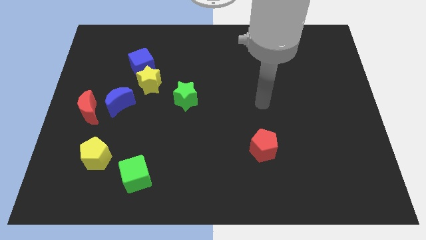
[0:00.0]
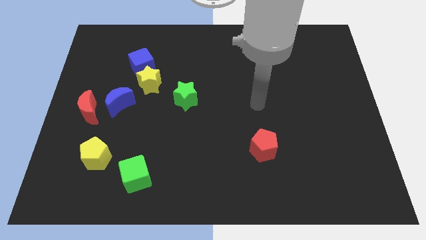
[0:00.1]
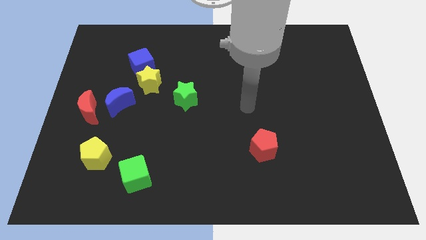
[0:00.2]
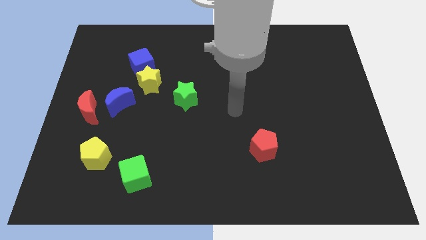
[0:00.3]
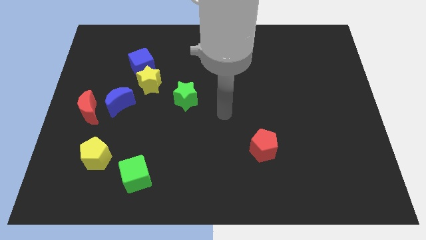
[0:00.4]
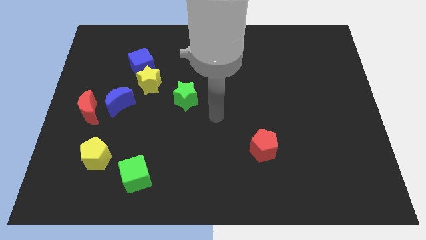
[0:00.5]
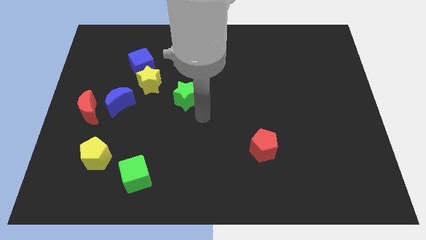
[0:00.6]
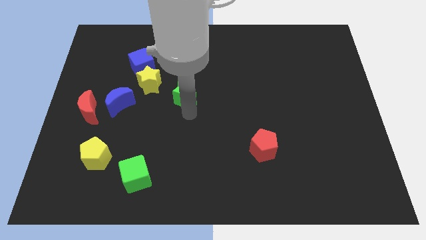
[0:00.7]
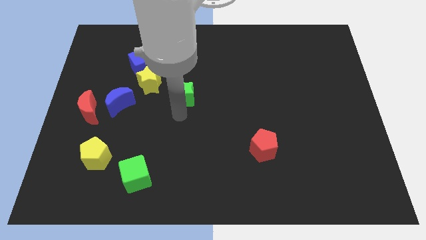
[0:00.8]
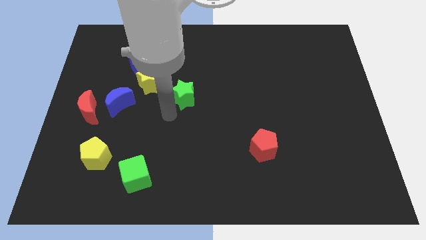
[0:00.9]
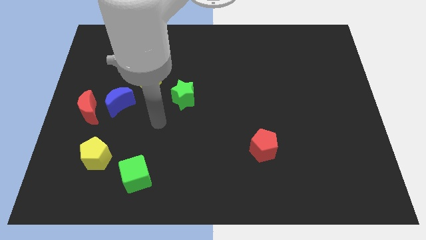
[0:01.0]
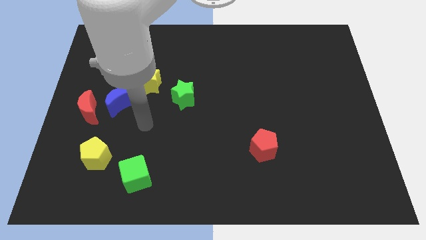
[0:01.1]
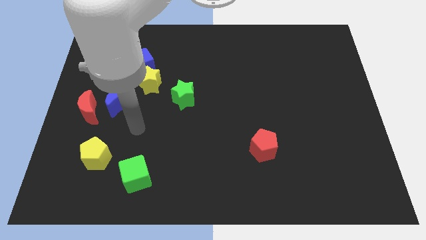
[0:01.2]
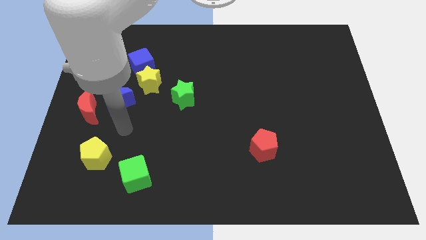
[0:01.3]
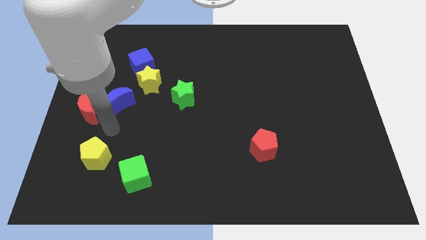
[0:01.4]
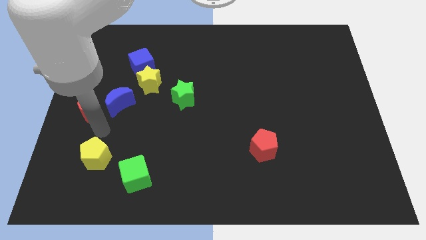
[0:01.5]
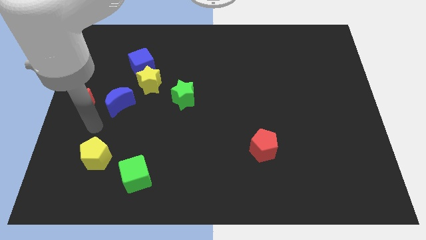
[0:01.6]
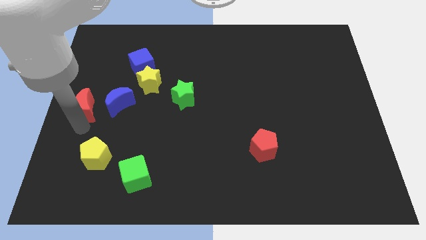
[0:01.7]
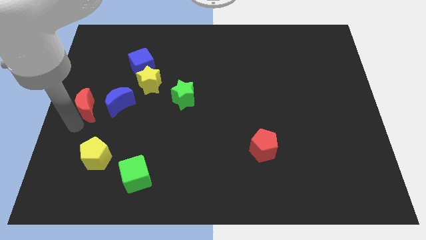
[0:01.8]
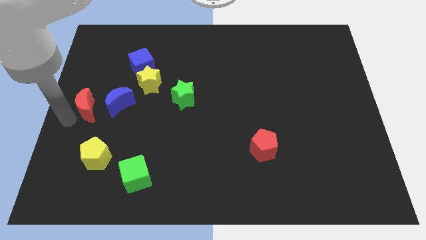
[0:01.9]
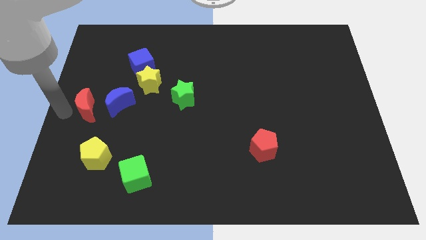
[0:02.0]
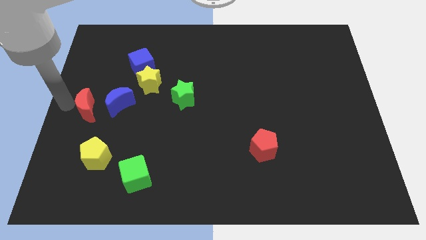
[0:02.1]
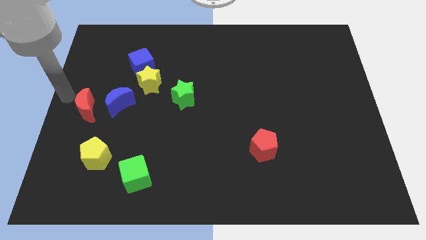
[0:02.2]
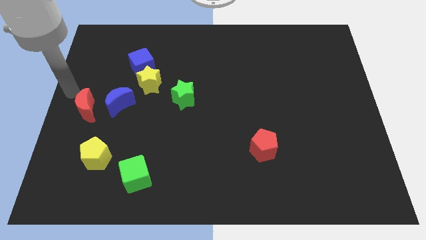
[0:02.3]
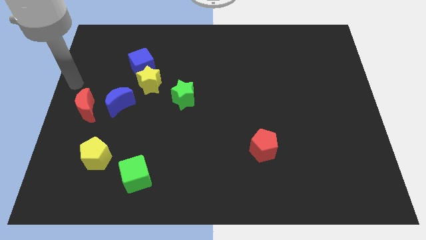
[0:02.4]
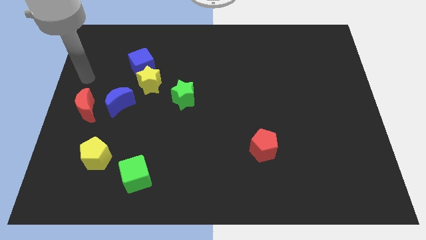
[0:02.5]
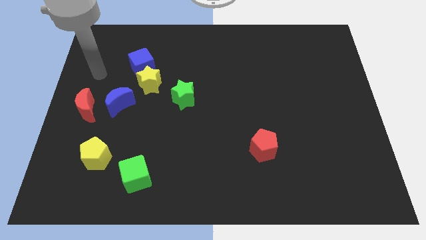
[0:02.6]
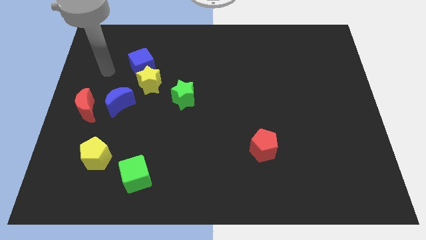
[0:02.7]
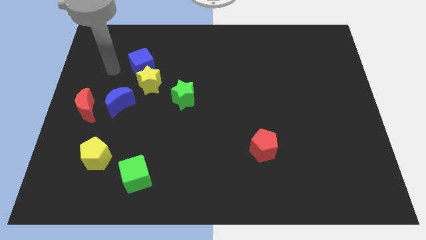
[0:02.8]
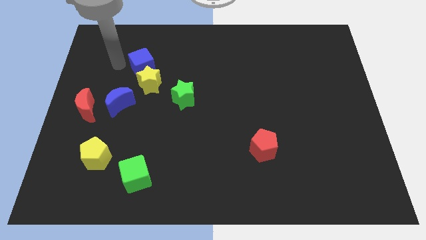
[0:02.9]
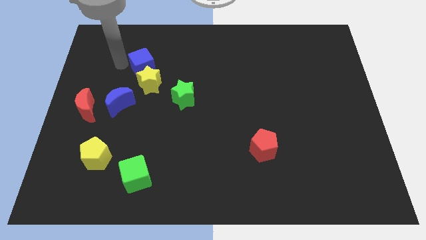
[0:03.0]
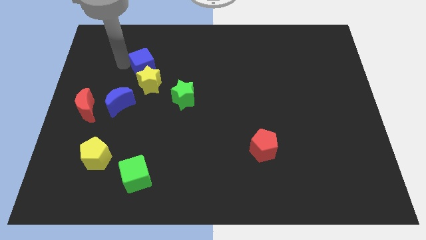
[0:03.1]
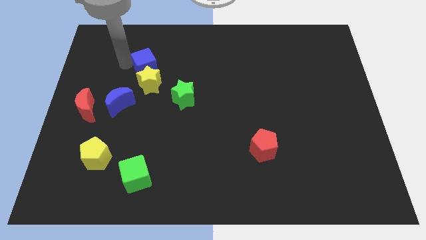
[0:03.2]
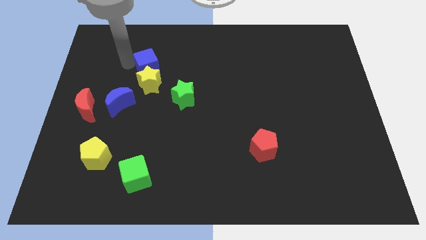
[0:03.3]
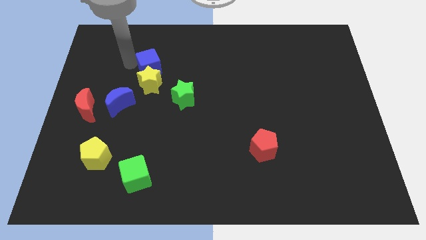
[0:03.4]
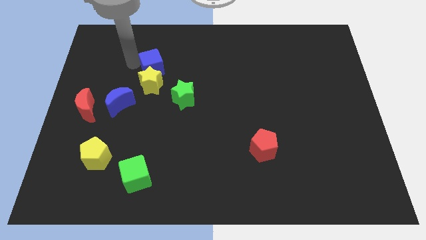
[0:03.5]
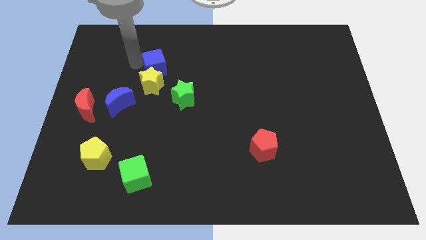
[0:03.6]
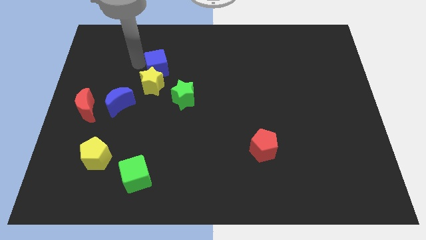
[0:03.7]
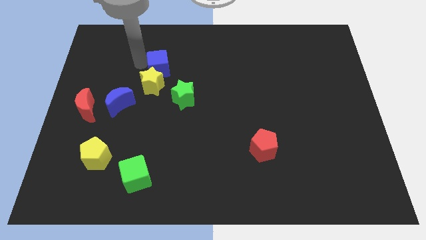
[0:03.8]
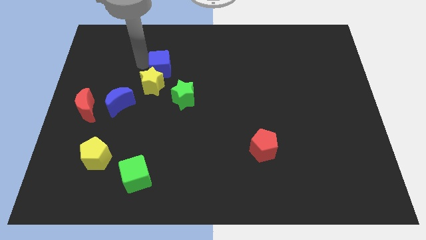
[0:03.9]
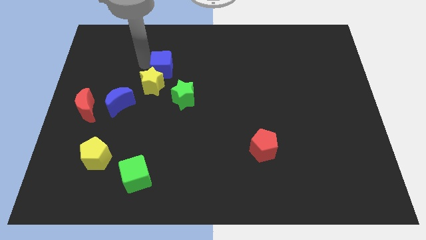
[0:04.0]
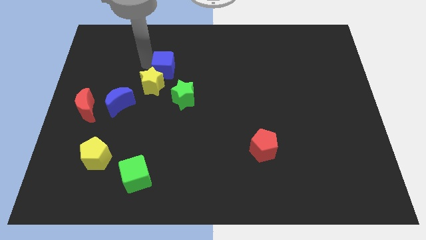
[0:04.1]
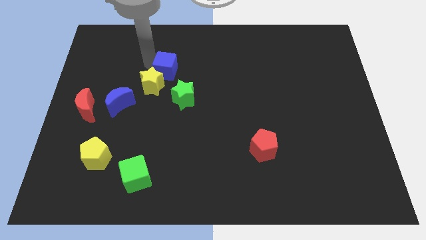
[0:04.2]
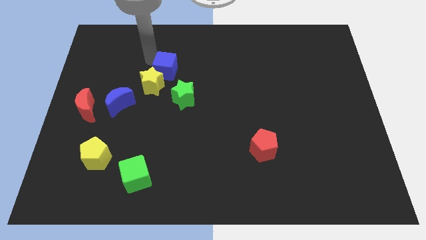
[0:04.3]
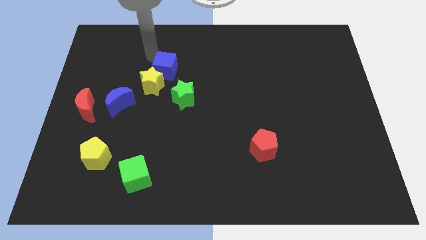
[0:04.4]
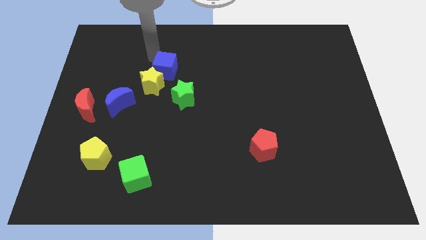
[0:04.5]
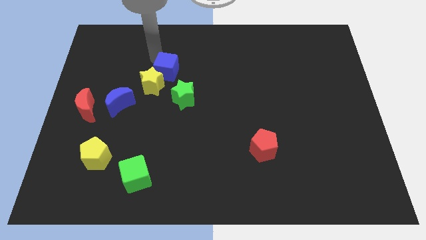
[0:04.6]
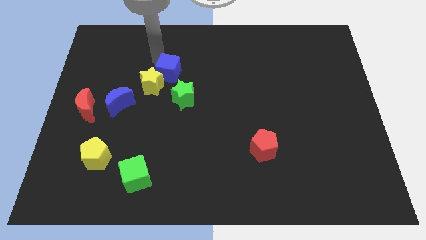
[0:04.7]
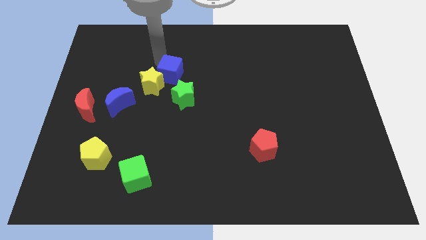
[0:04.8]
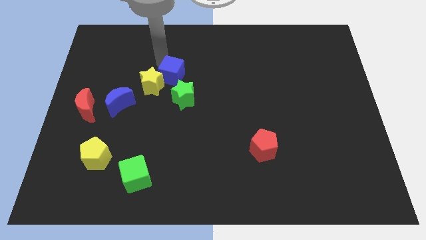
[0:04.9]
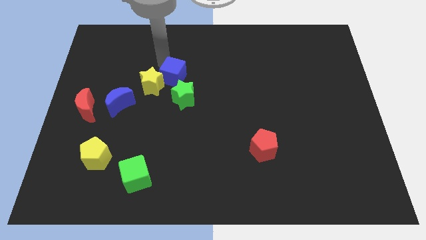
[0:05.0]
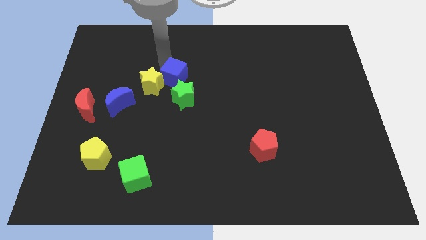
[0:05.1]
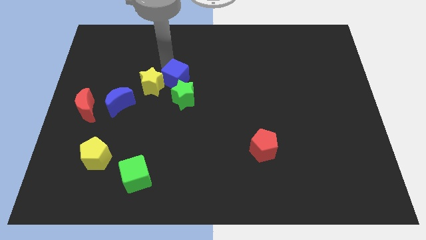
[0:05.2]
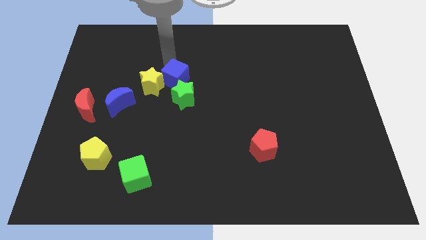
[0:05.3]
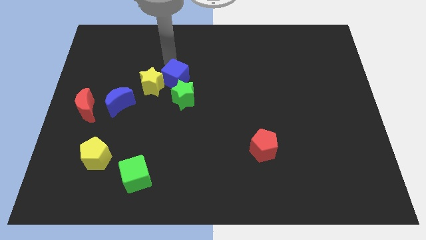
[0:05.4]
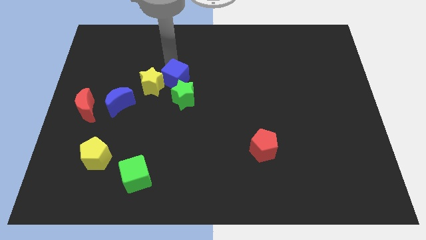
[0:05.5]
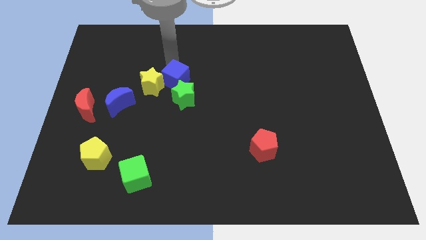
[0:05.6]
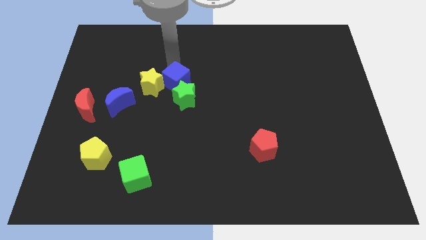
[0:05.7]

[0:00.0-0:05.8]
put the blue cube towards the green star

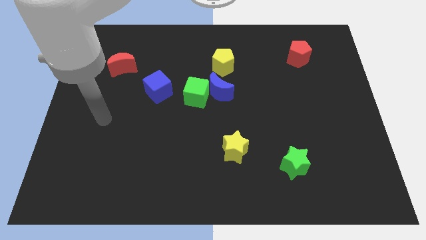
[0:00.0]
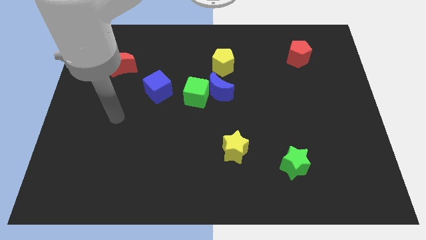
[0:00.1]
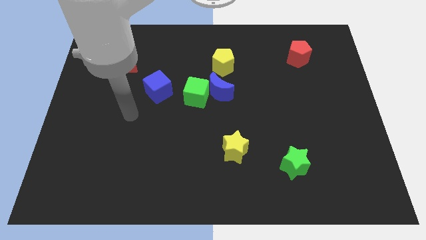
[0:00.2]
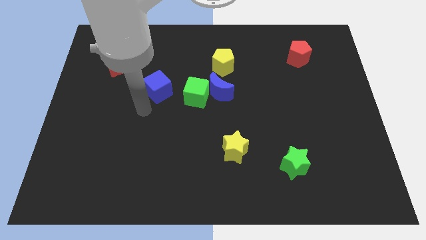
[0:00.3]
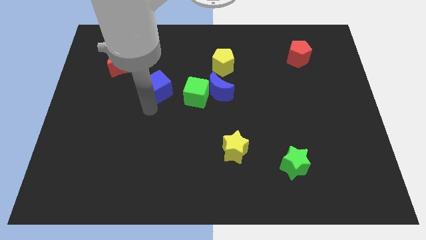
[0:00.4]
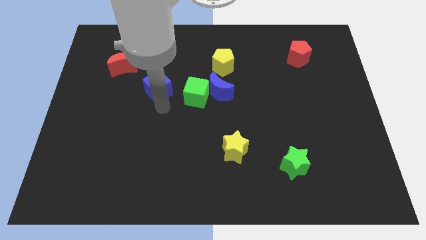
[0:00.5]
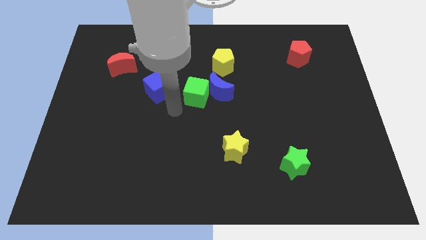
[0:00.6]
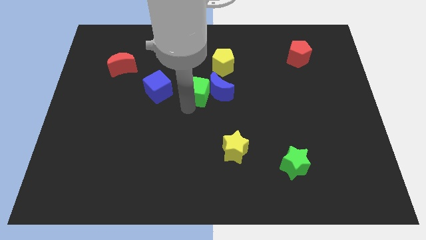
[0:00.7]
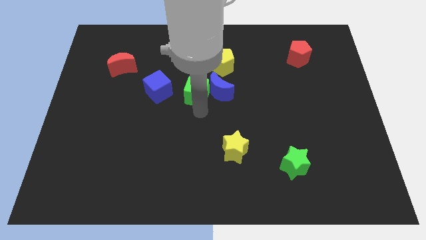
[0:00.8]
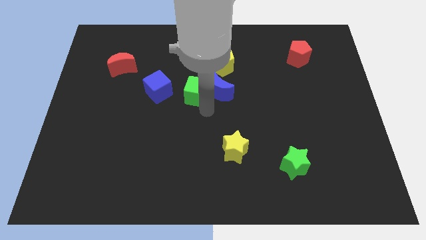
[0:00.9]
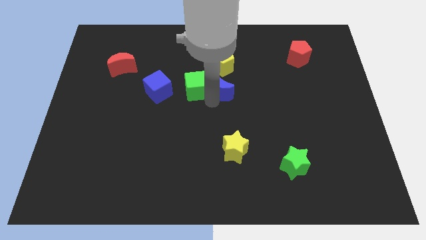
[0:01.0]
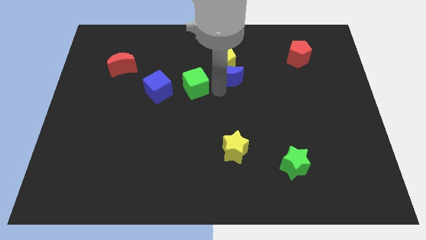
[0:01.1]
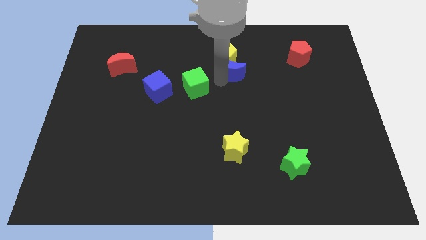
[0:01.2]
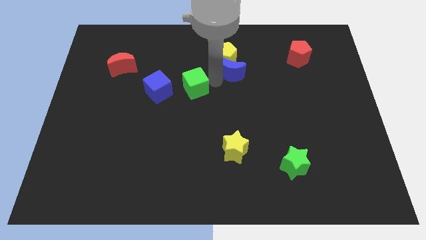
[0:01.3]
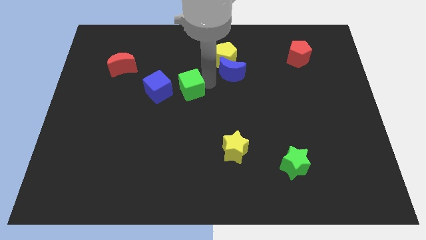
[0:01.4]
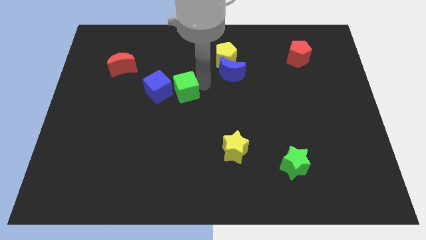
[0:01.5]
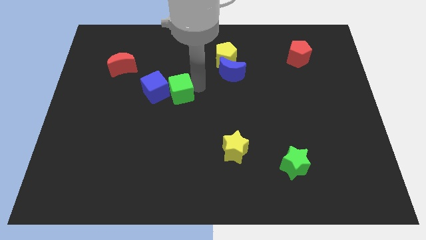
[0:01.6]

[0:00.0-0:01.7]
move the green cube next to the blue cube
